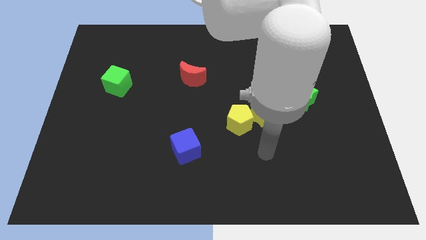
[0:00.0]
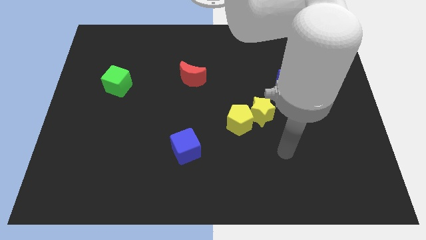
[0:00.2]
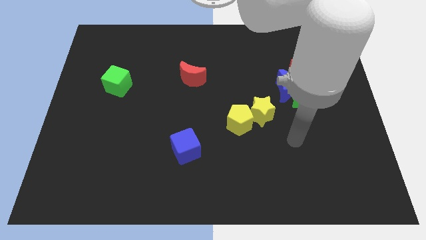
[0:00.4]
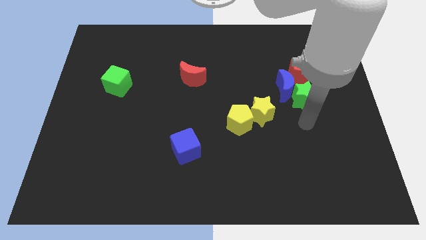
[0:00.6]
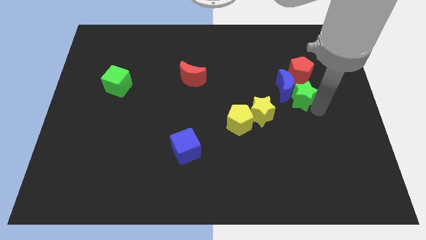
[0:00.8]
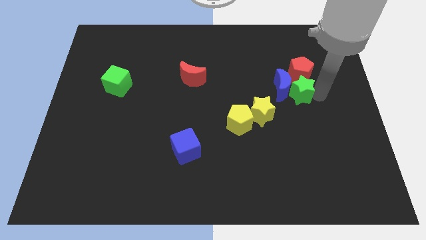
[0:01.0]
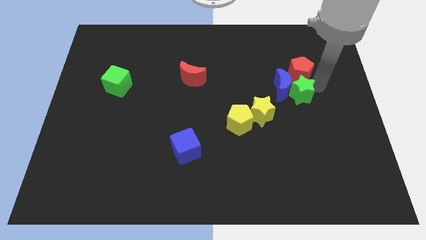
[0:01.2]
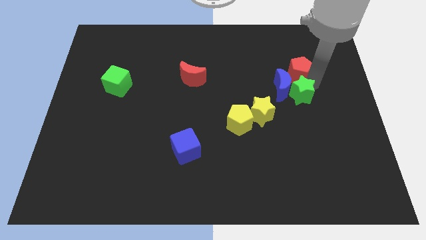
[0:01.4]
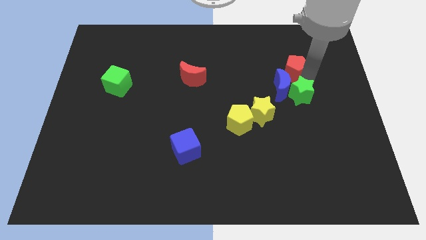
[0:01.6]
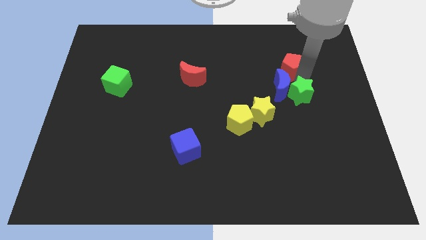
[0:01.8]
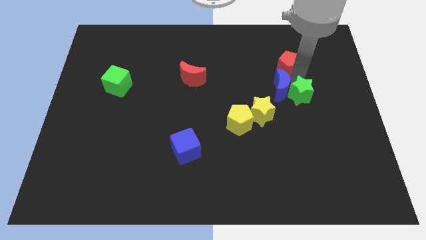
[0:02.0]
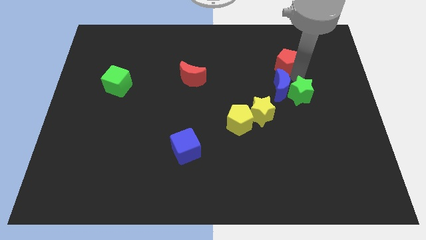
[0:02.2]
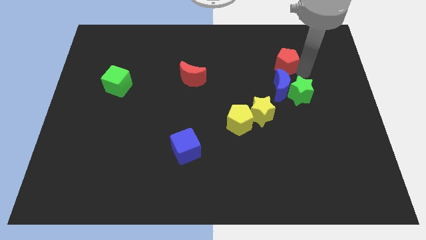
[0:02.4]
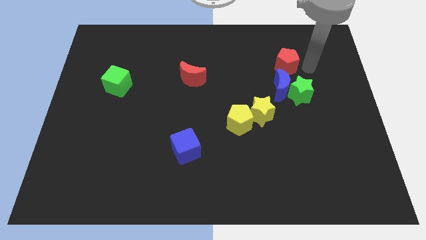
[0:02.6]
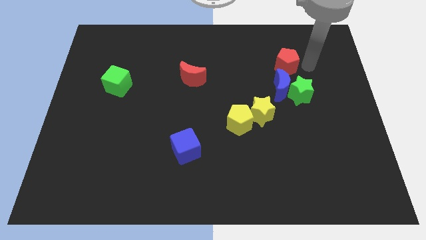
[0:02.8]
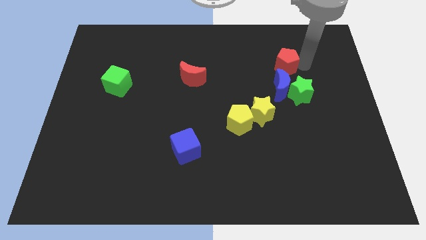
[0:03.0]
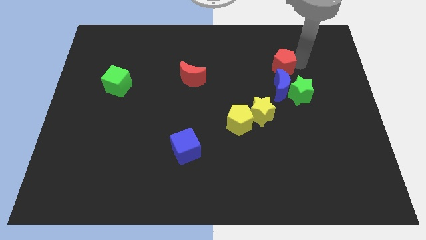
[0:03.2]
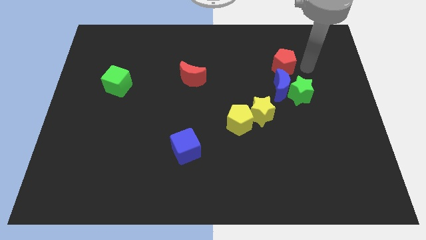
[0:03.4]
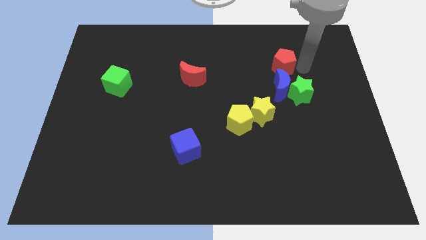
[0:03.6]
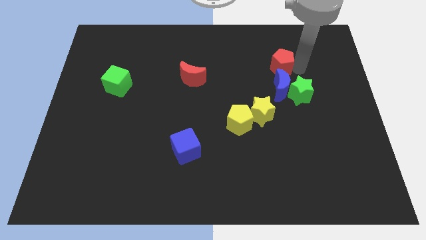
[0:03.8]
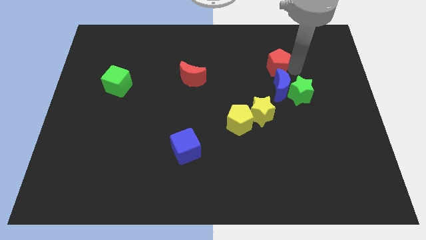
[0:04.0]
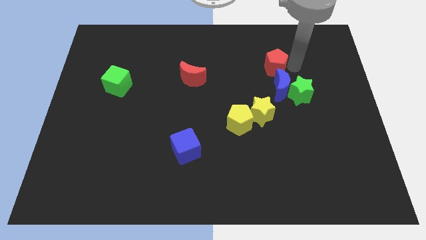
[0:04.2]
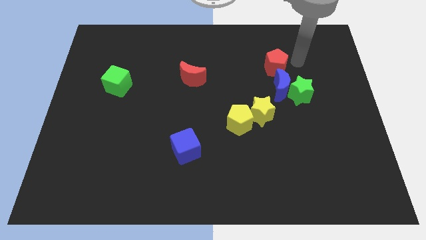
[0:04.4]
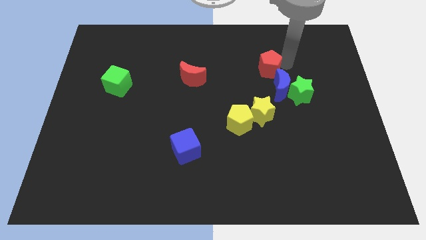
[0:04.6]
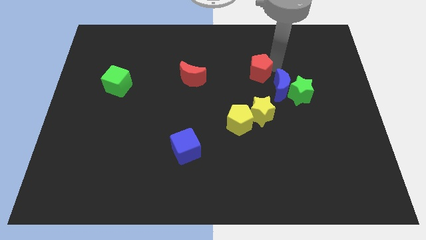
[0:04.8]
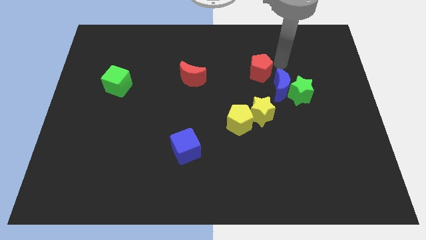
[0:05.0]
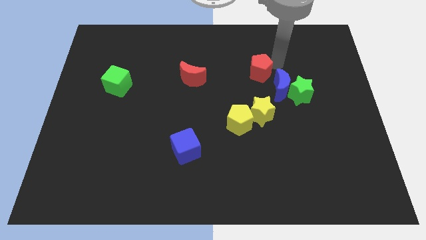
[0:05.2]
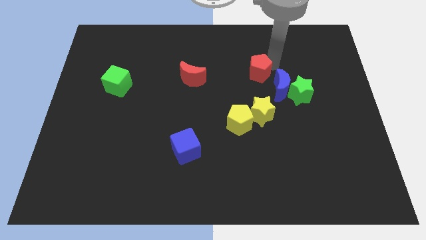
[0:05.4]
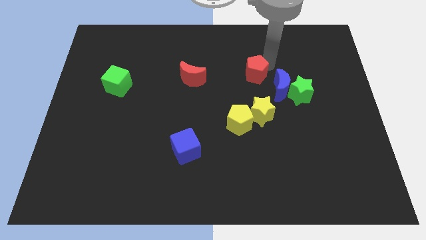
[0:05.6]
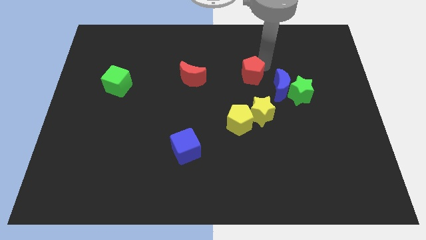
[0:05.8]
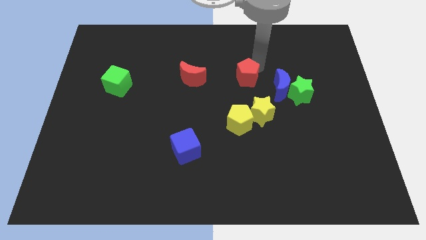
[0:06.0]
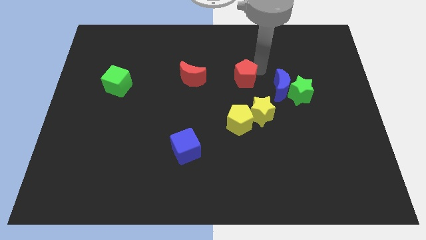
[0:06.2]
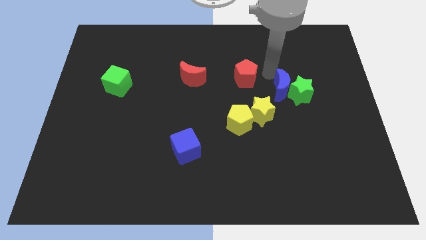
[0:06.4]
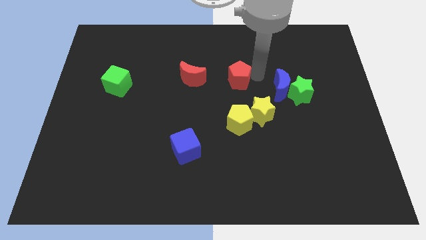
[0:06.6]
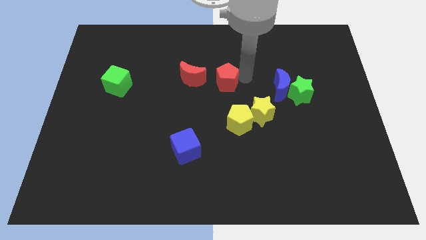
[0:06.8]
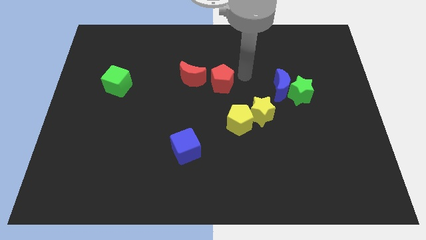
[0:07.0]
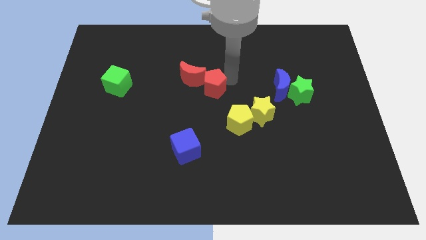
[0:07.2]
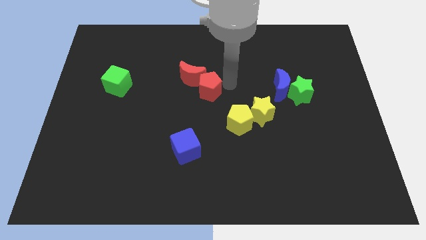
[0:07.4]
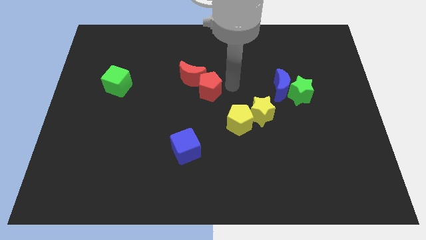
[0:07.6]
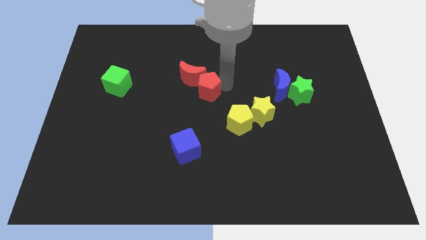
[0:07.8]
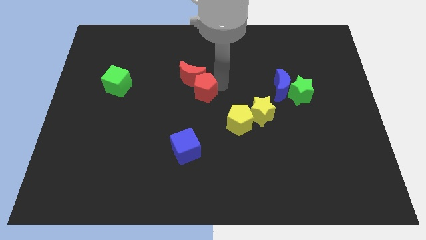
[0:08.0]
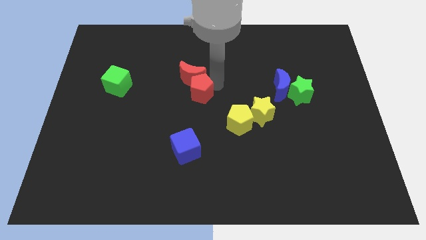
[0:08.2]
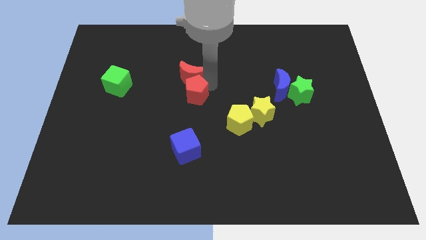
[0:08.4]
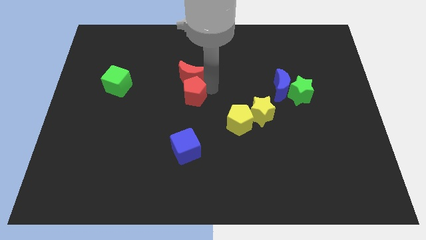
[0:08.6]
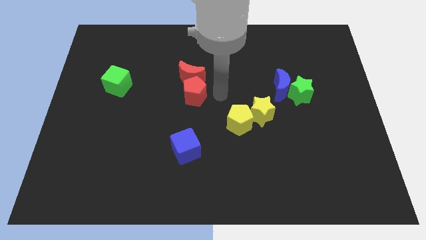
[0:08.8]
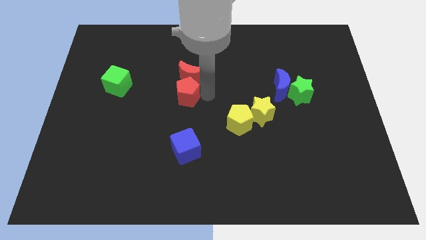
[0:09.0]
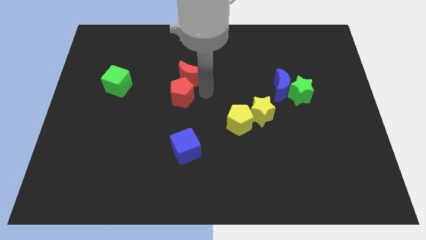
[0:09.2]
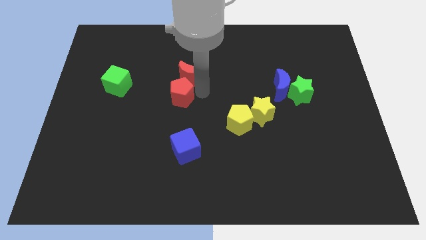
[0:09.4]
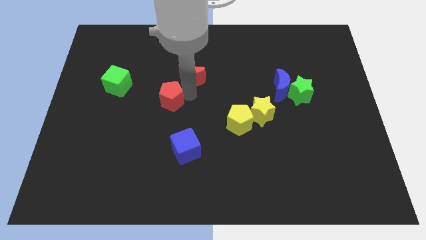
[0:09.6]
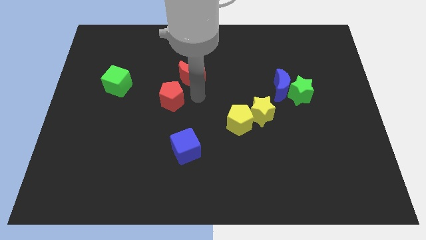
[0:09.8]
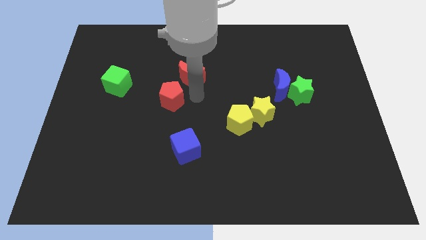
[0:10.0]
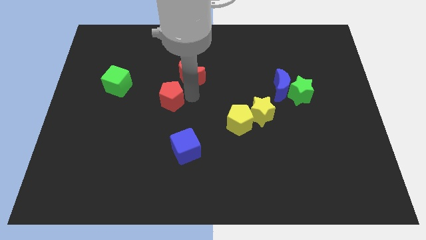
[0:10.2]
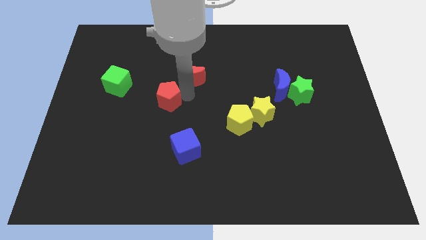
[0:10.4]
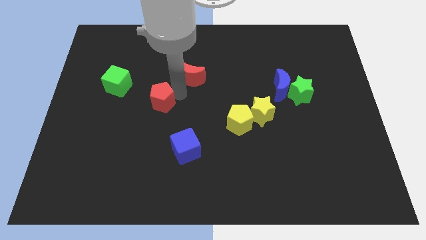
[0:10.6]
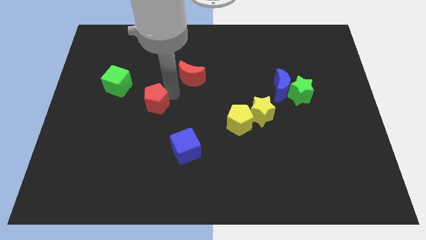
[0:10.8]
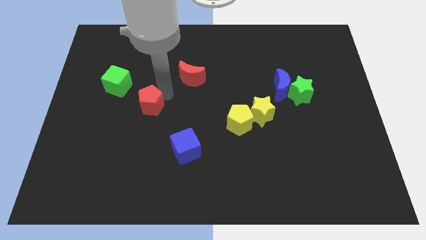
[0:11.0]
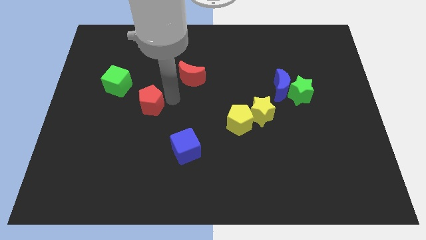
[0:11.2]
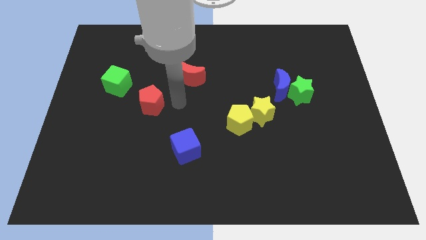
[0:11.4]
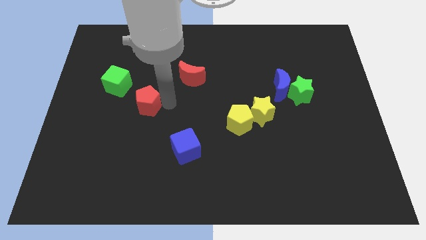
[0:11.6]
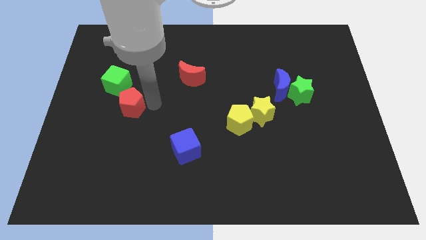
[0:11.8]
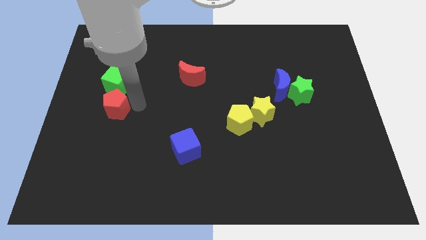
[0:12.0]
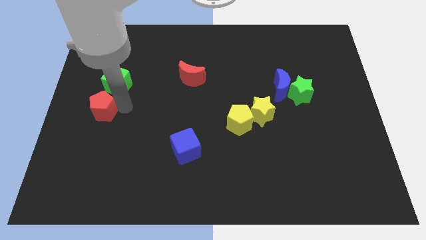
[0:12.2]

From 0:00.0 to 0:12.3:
slide the red pentagon to the left side
